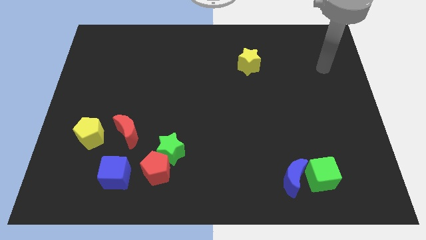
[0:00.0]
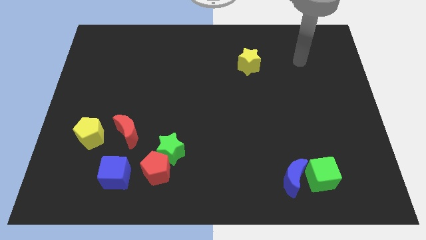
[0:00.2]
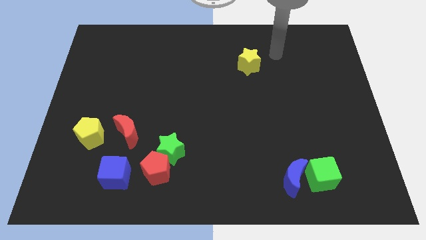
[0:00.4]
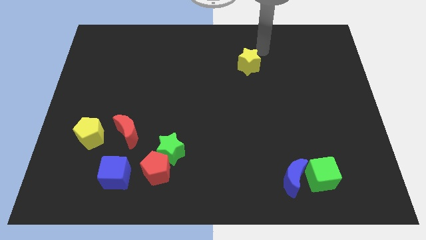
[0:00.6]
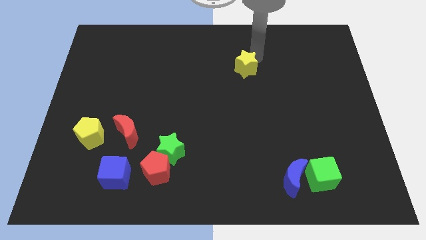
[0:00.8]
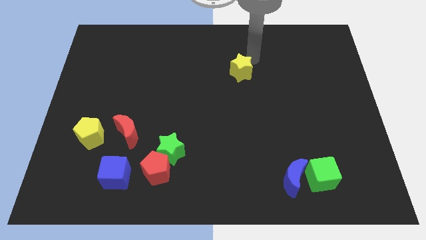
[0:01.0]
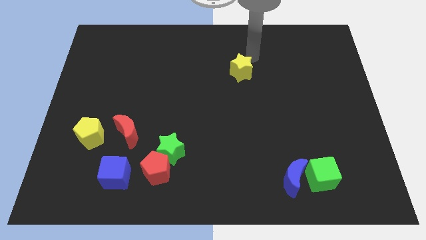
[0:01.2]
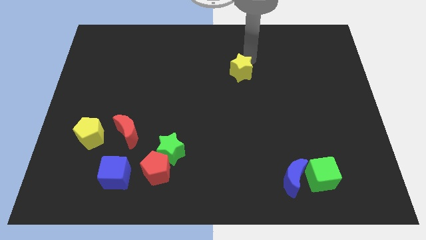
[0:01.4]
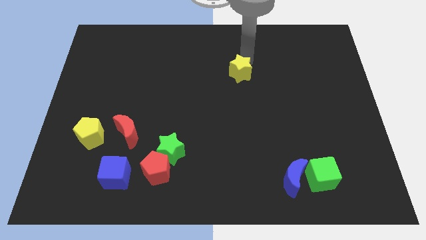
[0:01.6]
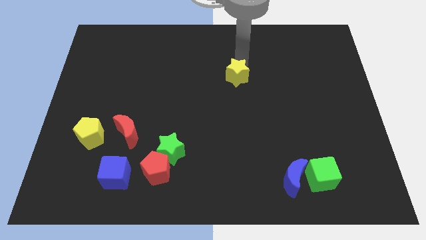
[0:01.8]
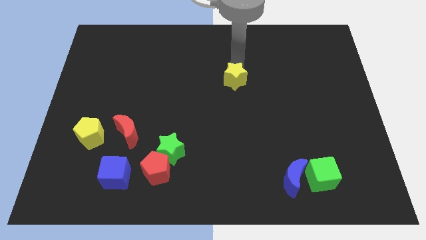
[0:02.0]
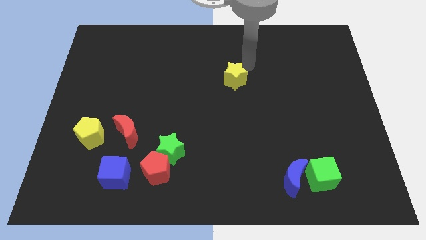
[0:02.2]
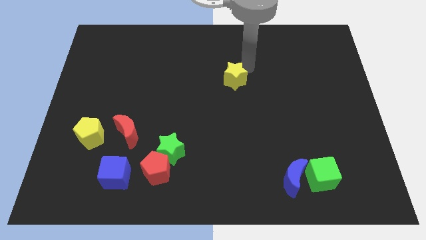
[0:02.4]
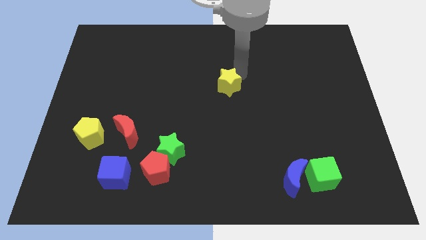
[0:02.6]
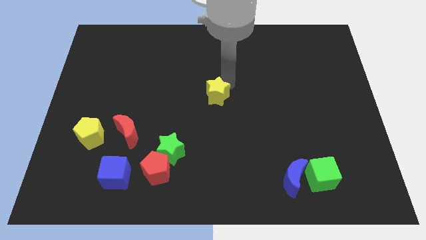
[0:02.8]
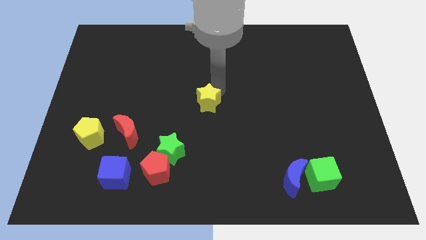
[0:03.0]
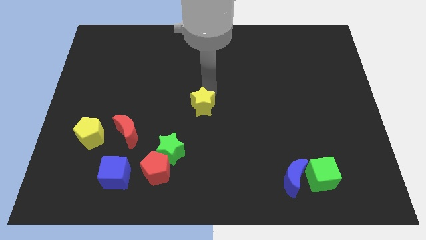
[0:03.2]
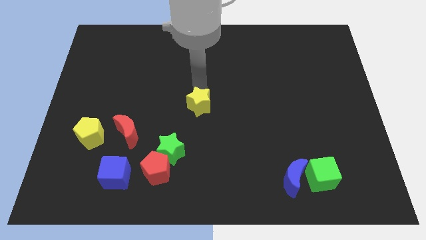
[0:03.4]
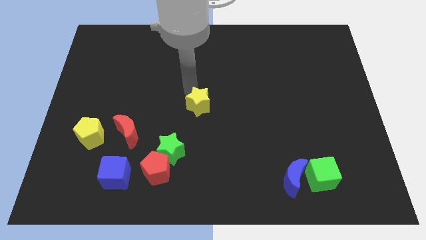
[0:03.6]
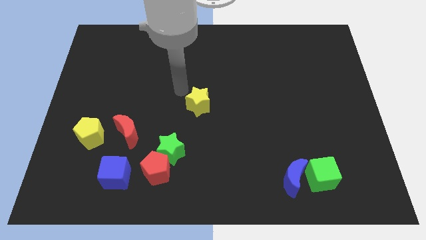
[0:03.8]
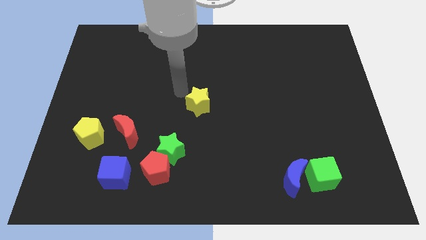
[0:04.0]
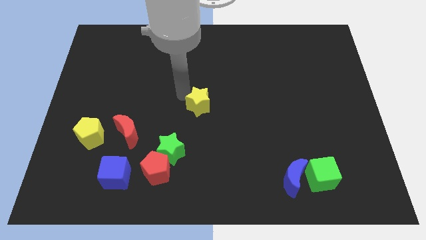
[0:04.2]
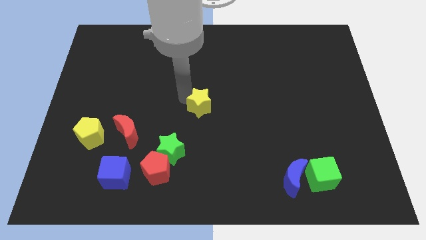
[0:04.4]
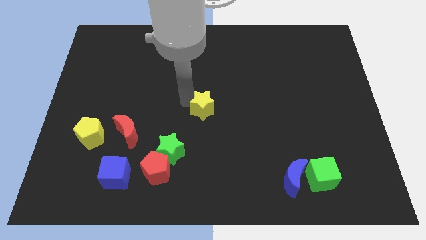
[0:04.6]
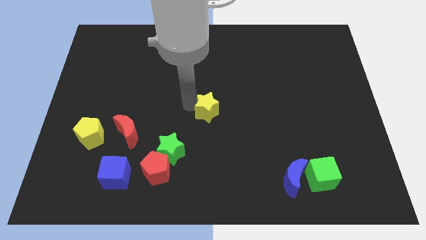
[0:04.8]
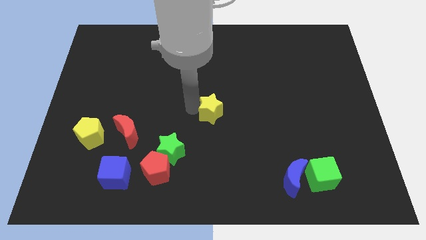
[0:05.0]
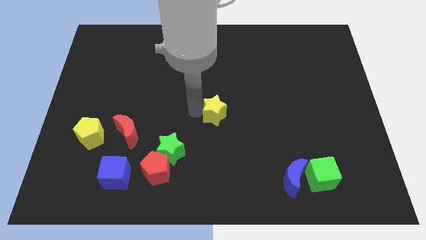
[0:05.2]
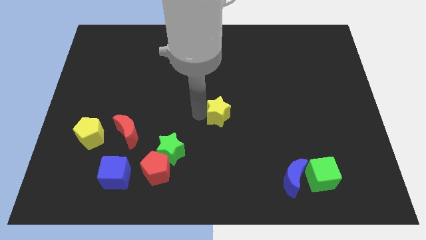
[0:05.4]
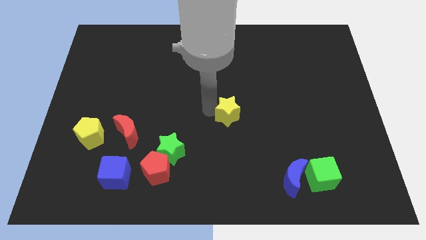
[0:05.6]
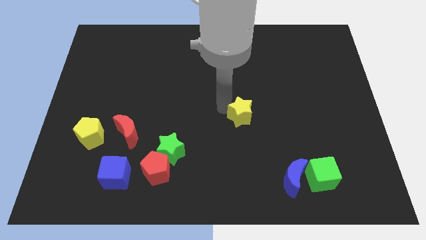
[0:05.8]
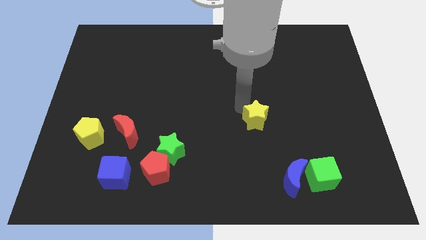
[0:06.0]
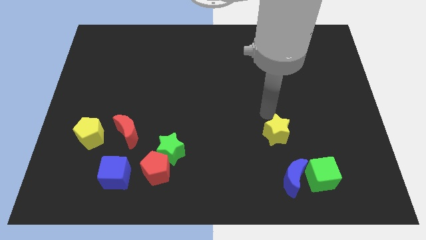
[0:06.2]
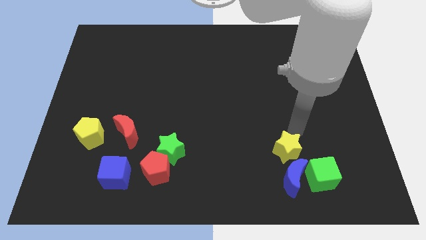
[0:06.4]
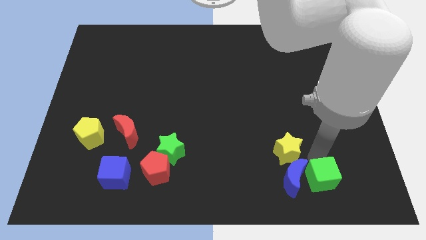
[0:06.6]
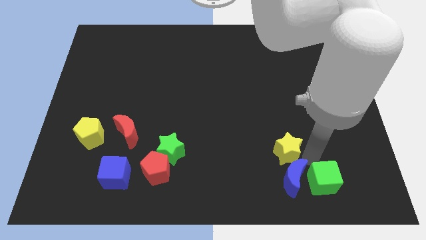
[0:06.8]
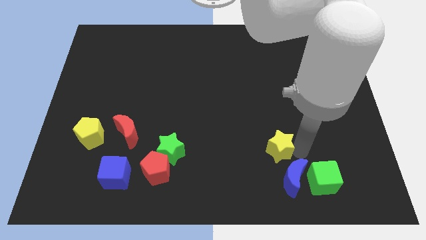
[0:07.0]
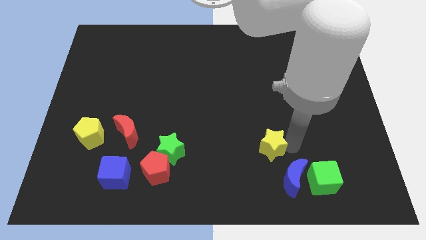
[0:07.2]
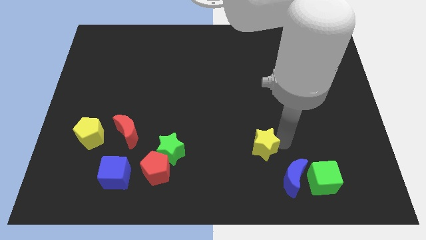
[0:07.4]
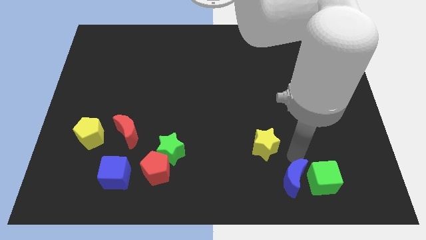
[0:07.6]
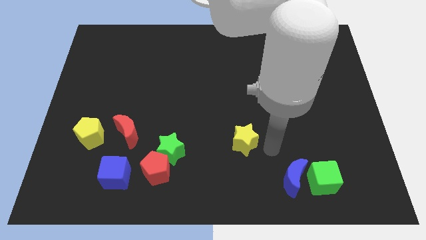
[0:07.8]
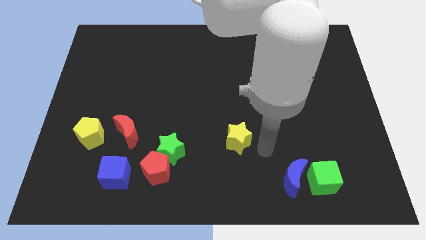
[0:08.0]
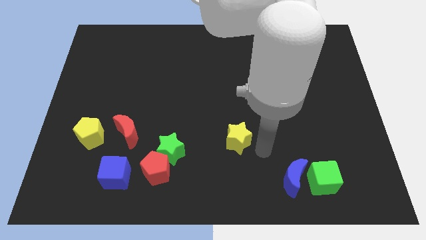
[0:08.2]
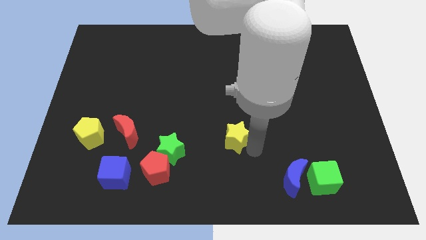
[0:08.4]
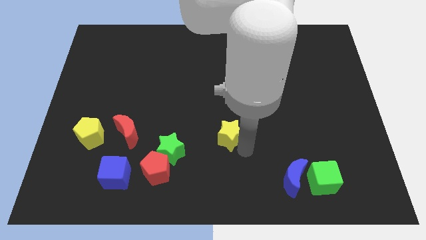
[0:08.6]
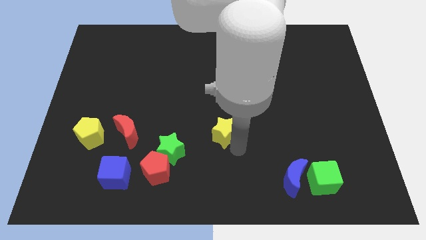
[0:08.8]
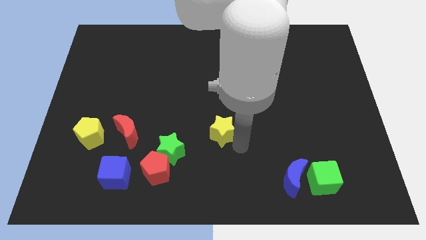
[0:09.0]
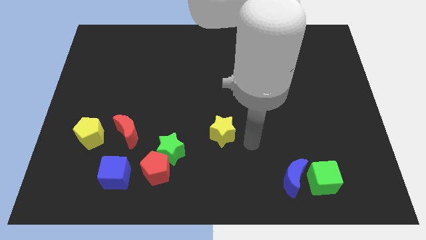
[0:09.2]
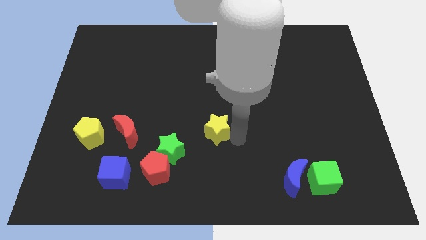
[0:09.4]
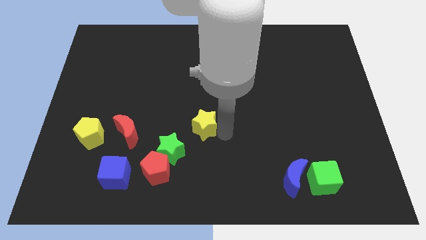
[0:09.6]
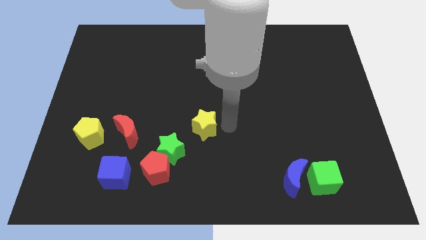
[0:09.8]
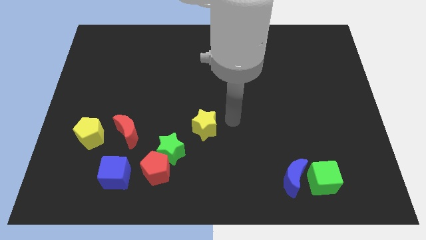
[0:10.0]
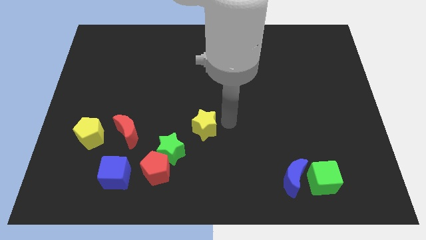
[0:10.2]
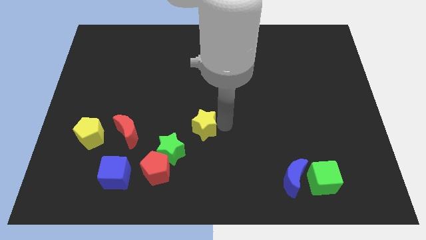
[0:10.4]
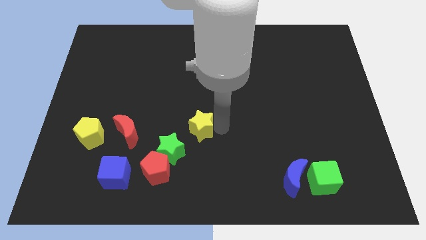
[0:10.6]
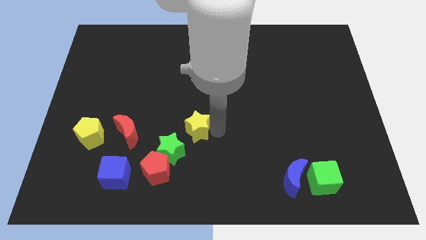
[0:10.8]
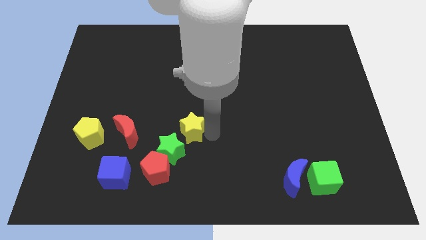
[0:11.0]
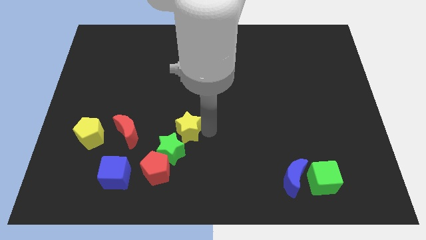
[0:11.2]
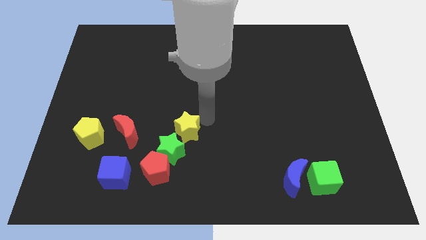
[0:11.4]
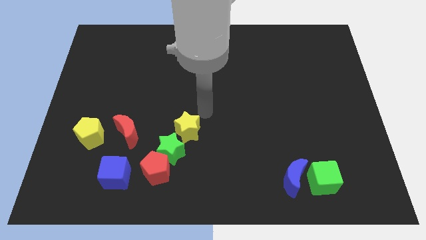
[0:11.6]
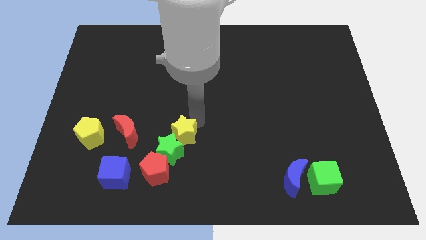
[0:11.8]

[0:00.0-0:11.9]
push the yellow star towards the green star

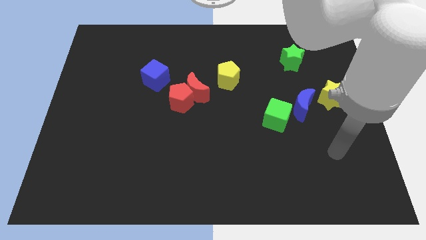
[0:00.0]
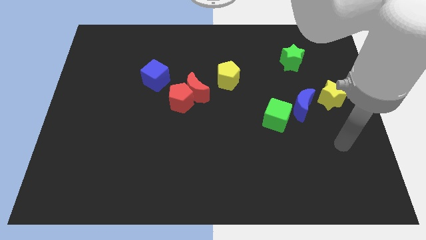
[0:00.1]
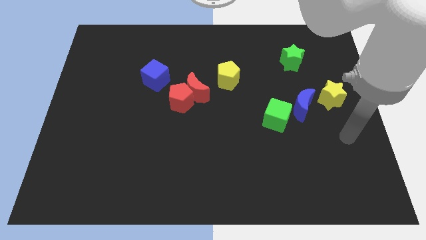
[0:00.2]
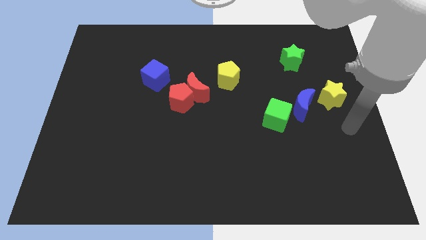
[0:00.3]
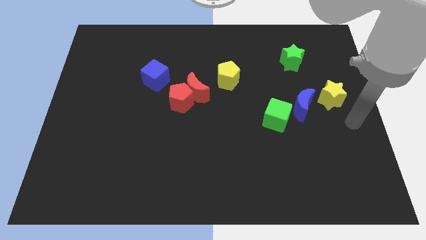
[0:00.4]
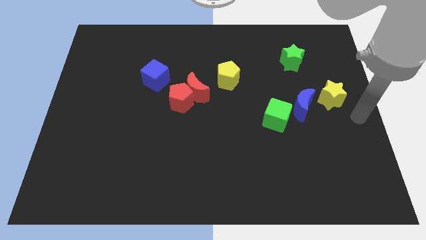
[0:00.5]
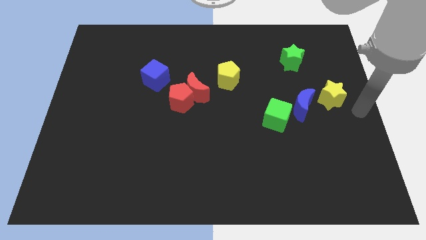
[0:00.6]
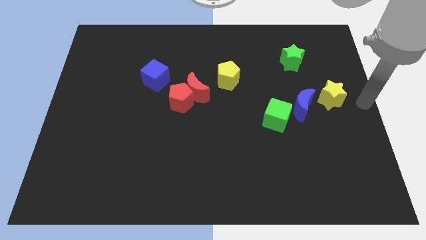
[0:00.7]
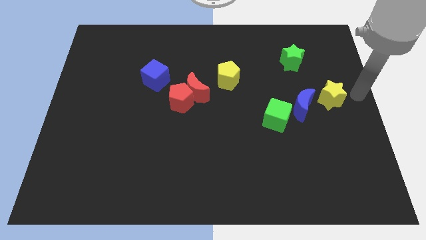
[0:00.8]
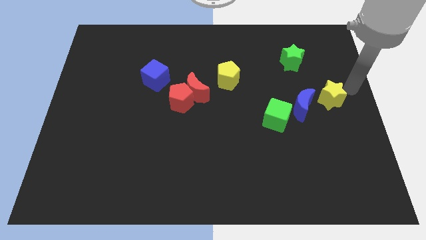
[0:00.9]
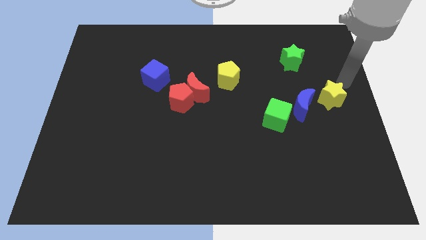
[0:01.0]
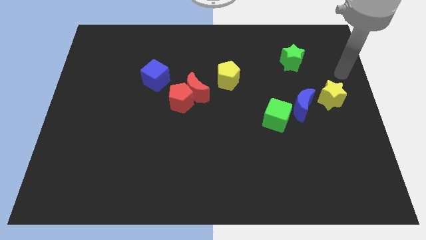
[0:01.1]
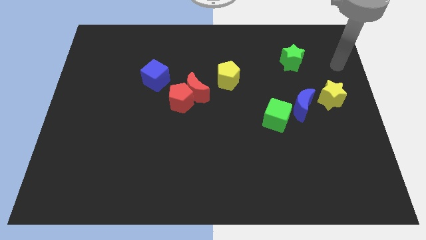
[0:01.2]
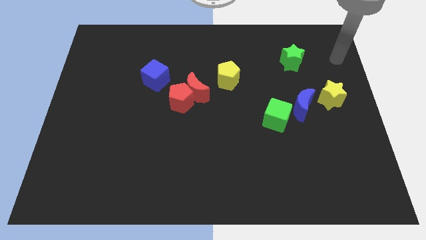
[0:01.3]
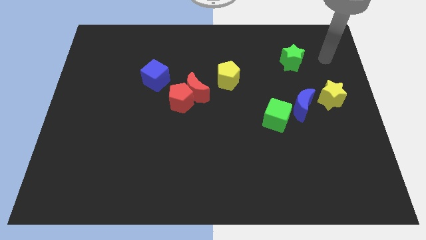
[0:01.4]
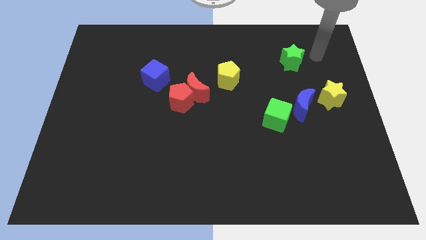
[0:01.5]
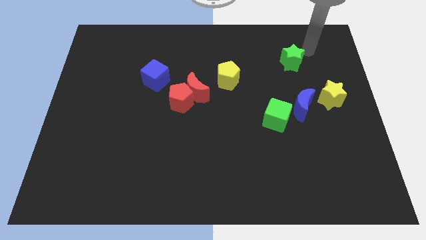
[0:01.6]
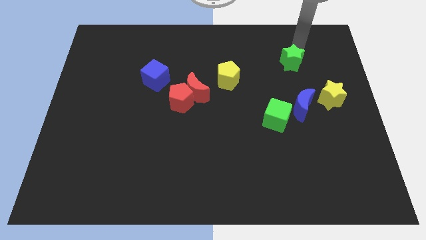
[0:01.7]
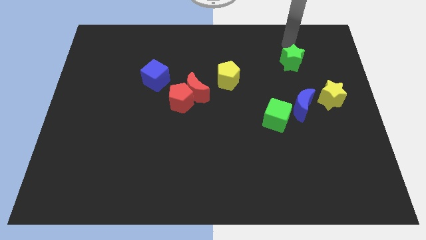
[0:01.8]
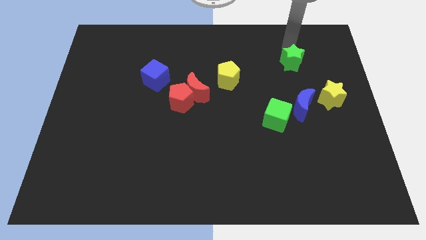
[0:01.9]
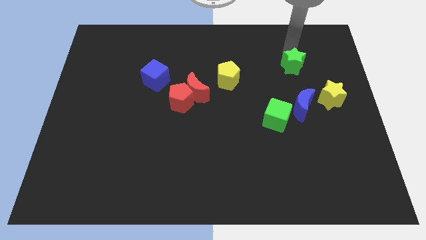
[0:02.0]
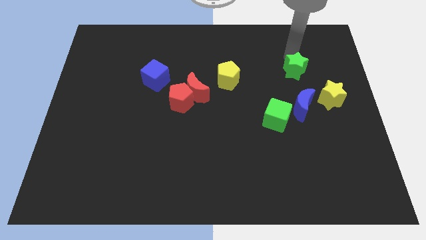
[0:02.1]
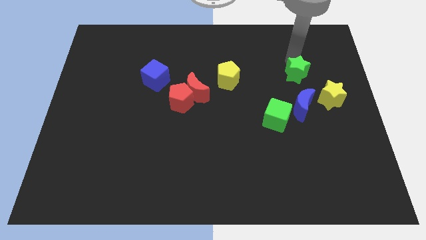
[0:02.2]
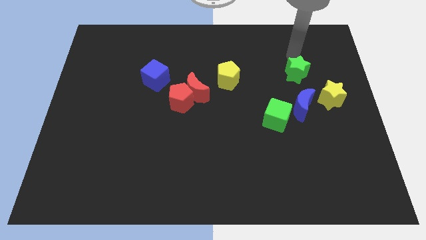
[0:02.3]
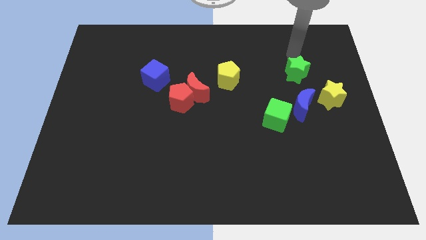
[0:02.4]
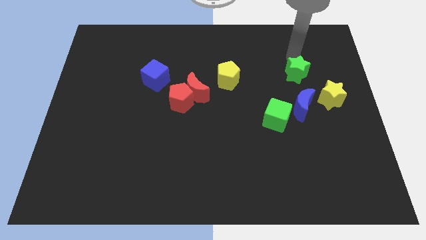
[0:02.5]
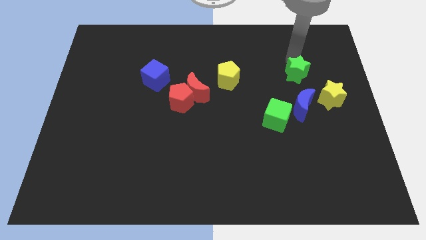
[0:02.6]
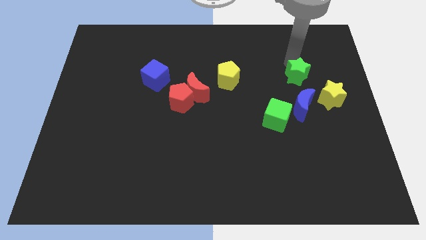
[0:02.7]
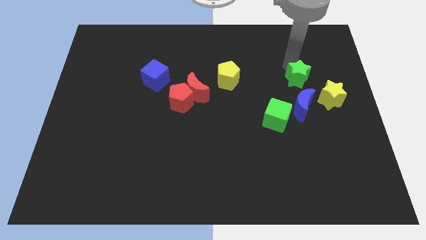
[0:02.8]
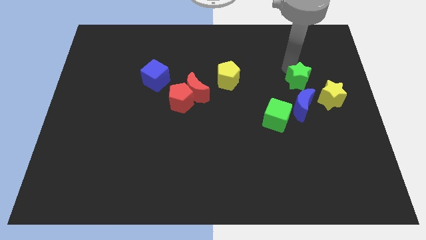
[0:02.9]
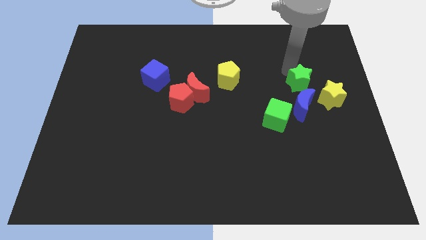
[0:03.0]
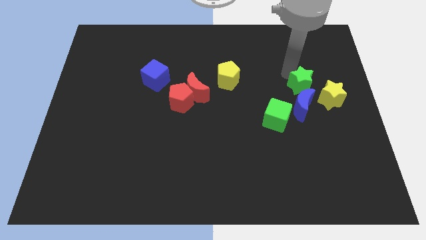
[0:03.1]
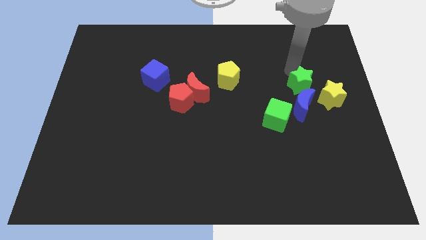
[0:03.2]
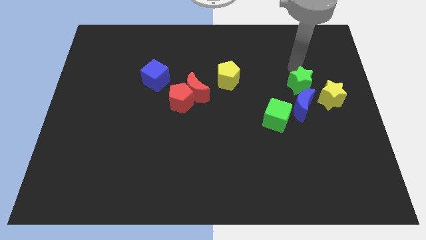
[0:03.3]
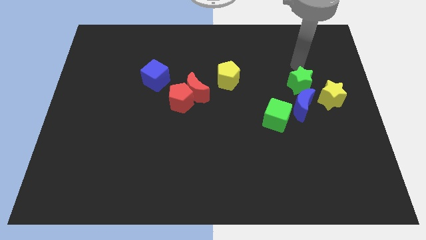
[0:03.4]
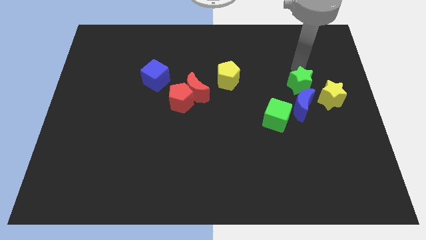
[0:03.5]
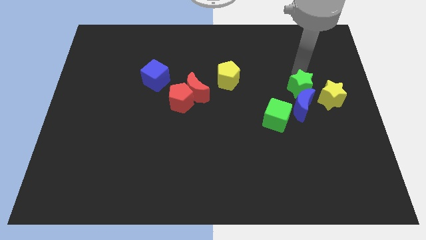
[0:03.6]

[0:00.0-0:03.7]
put the green star close to the blue moon
